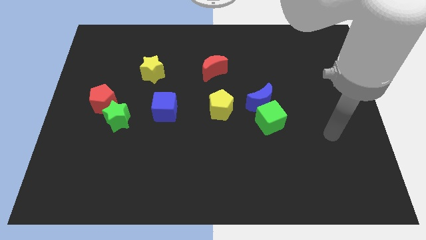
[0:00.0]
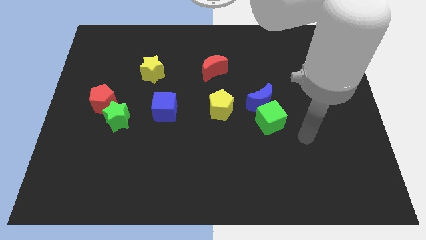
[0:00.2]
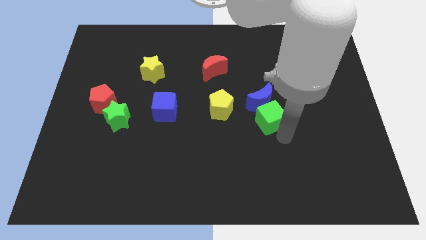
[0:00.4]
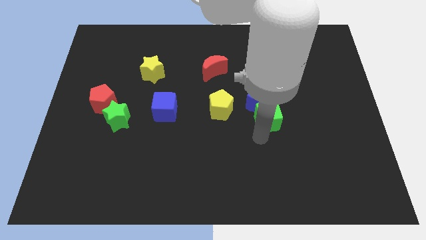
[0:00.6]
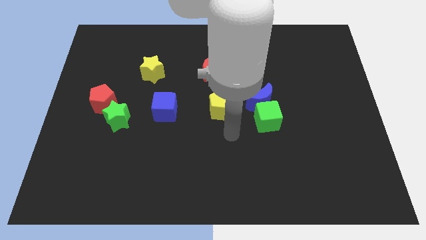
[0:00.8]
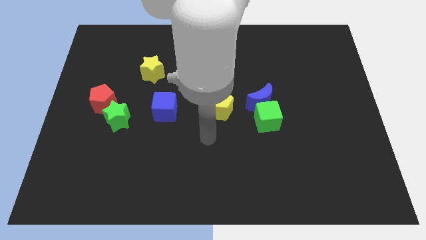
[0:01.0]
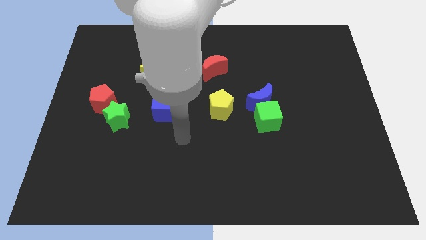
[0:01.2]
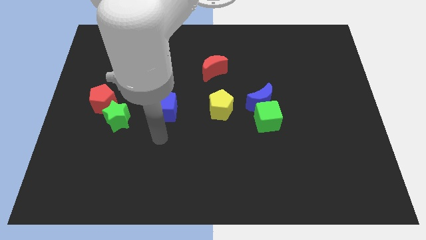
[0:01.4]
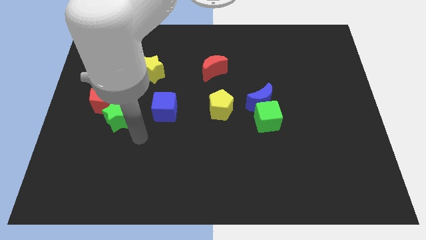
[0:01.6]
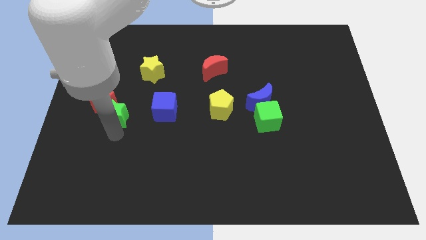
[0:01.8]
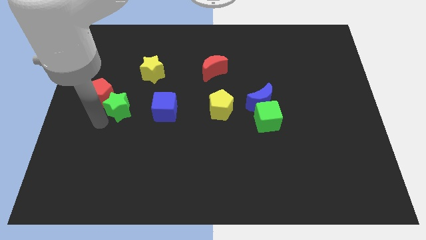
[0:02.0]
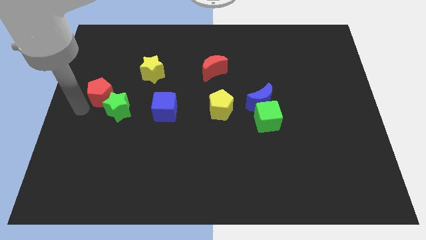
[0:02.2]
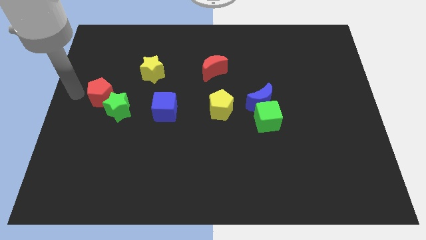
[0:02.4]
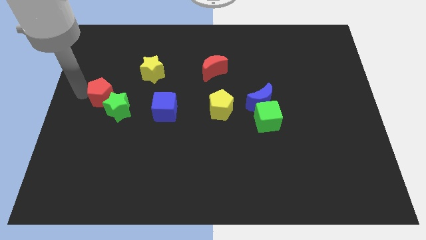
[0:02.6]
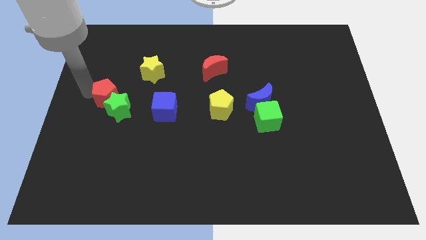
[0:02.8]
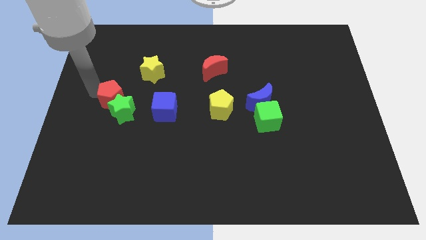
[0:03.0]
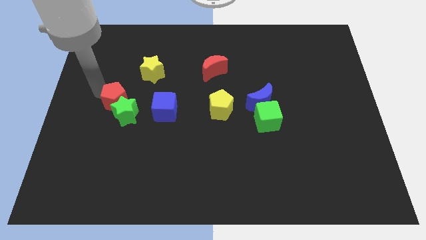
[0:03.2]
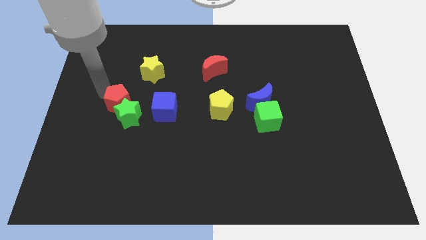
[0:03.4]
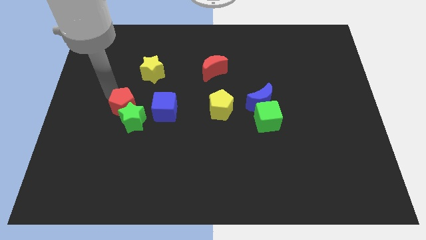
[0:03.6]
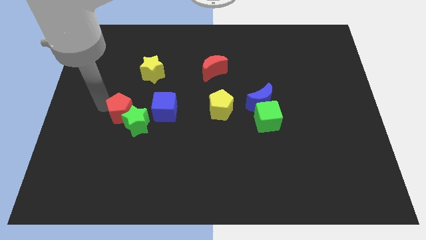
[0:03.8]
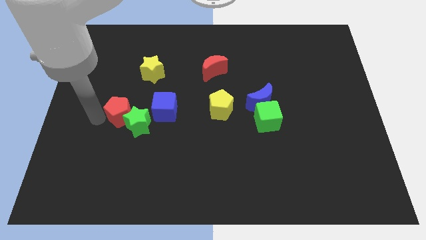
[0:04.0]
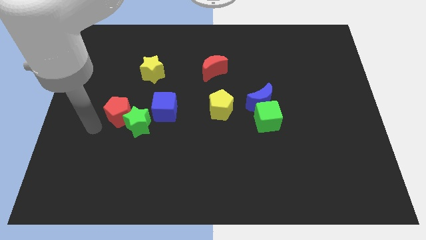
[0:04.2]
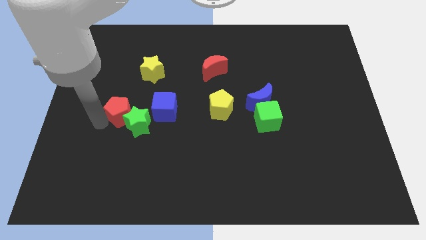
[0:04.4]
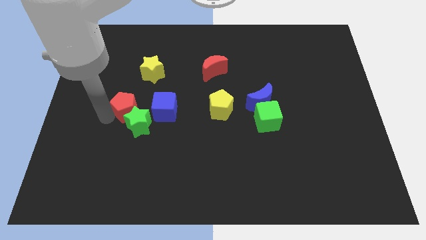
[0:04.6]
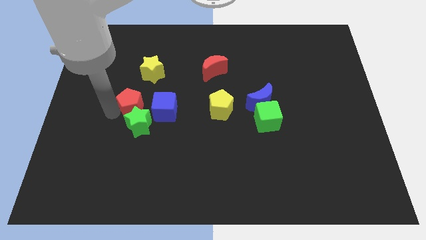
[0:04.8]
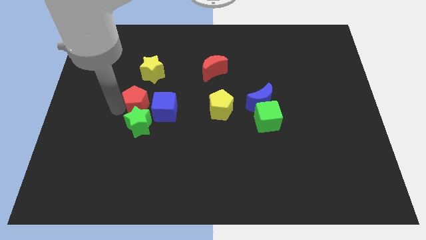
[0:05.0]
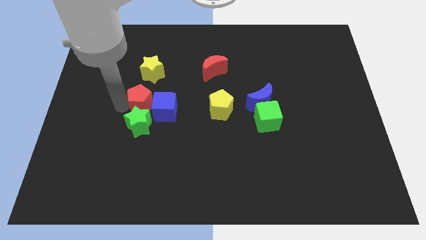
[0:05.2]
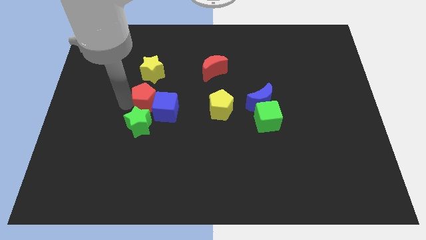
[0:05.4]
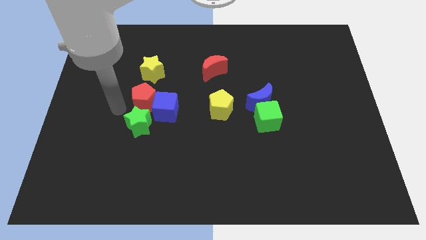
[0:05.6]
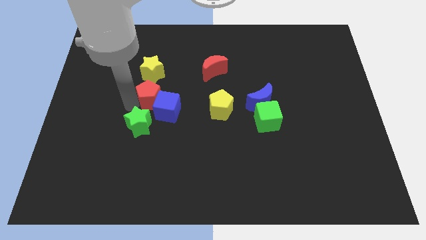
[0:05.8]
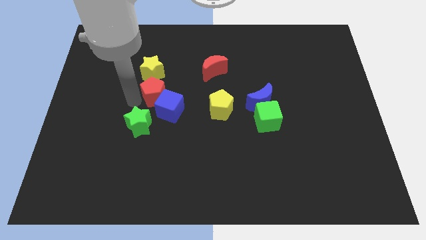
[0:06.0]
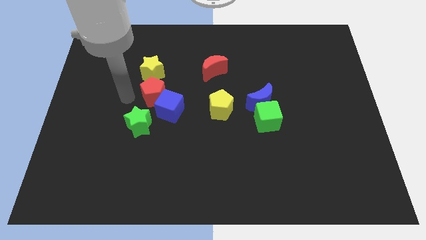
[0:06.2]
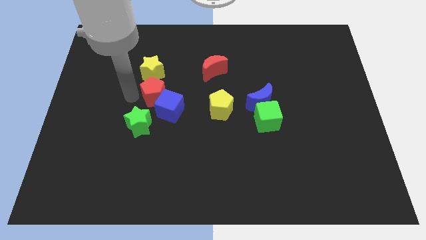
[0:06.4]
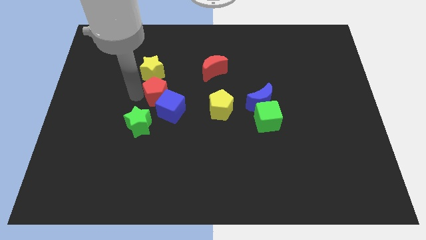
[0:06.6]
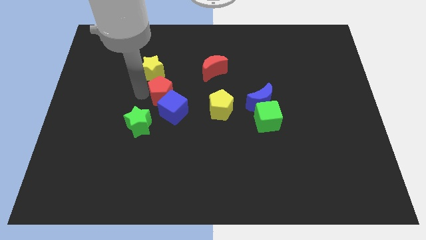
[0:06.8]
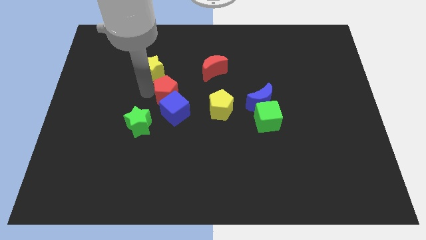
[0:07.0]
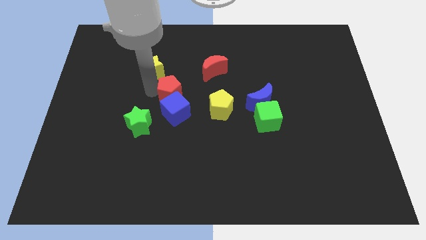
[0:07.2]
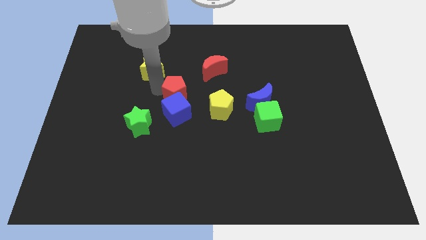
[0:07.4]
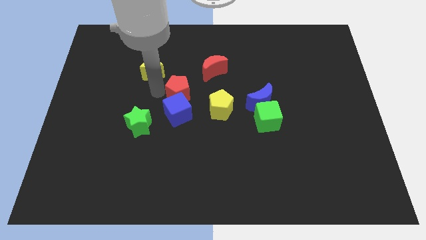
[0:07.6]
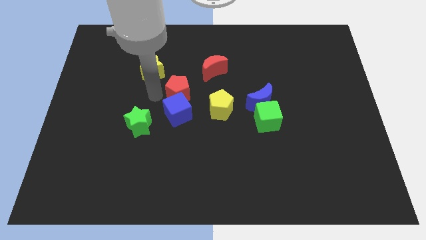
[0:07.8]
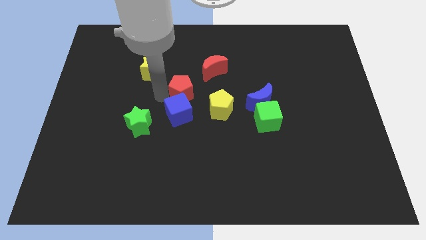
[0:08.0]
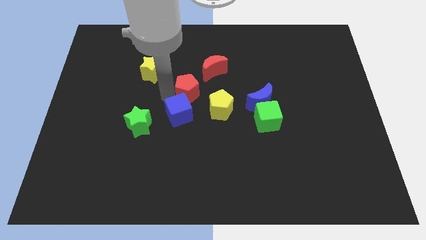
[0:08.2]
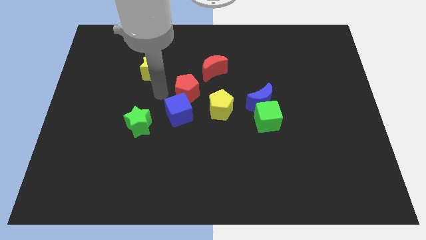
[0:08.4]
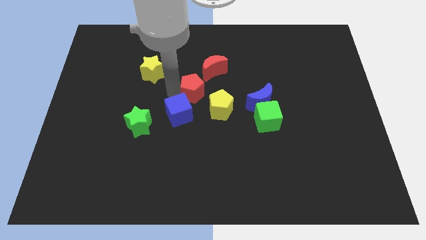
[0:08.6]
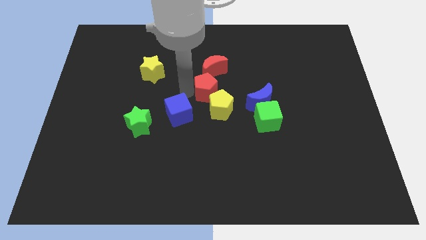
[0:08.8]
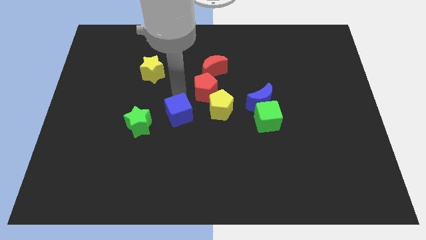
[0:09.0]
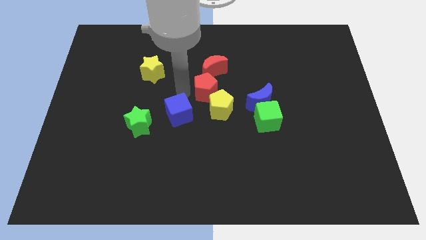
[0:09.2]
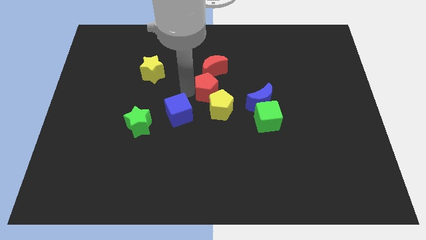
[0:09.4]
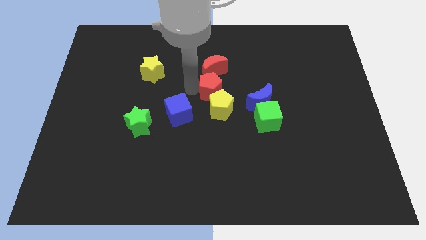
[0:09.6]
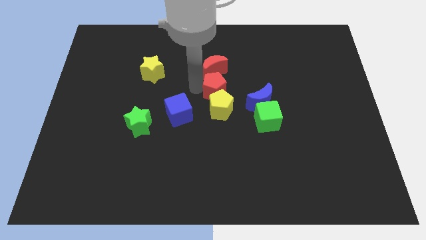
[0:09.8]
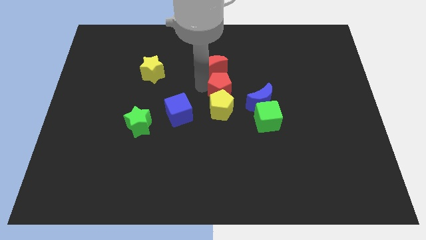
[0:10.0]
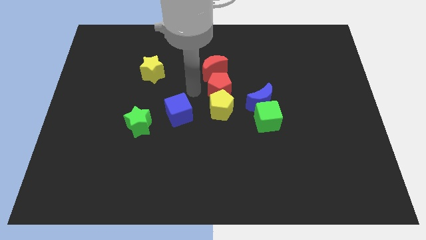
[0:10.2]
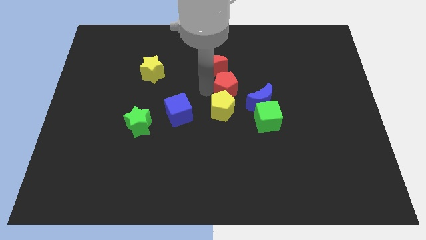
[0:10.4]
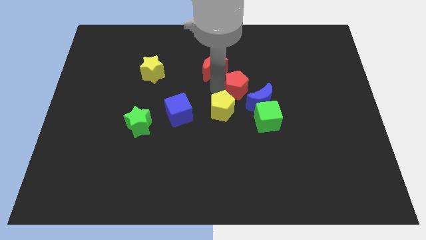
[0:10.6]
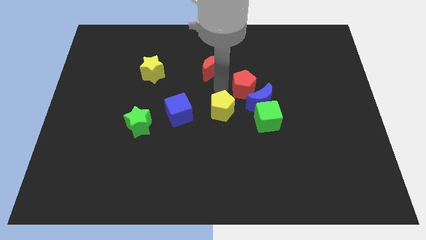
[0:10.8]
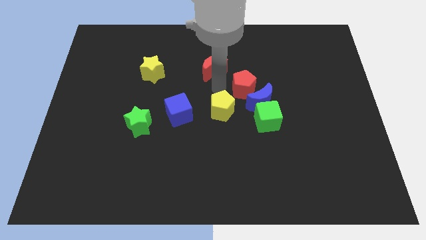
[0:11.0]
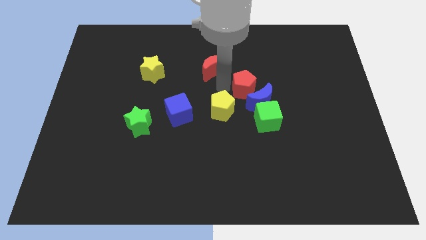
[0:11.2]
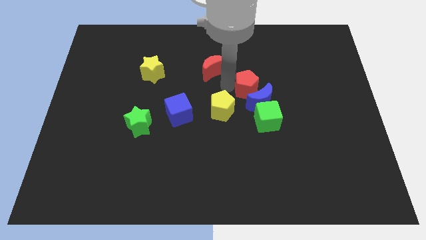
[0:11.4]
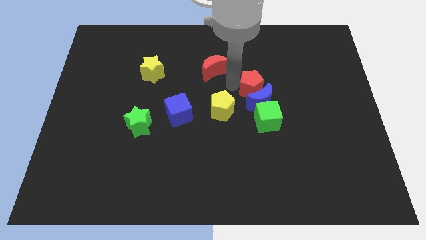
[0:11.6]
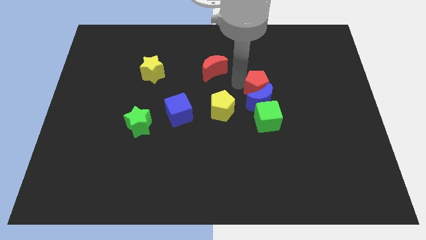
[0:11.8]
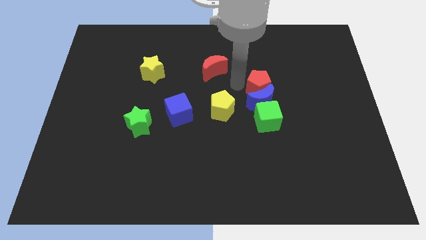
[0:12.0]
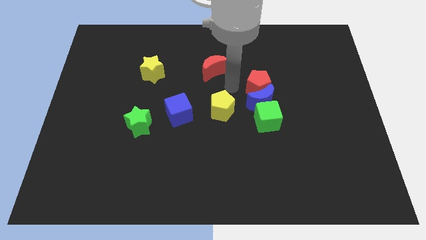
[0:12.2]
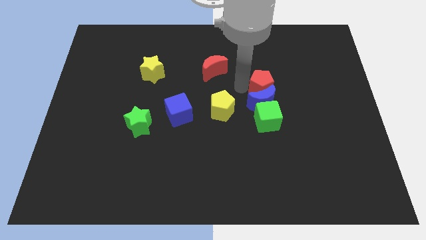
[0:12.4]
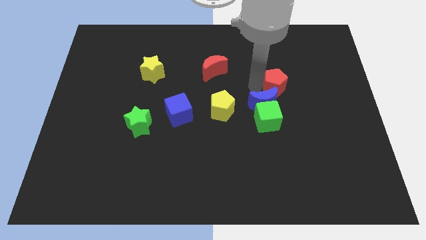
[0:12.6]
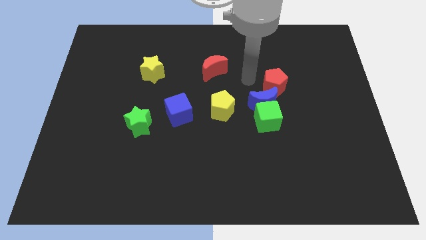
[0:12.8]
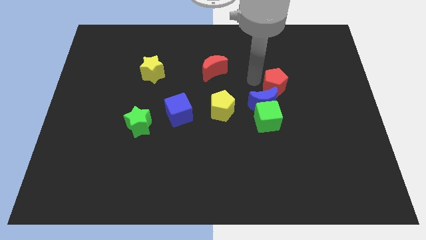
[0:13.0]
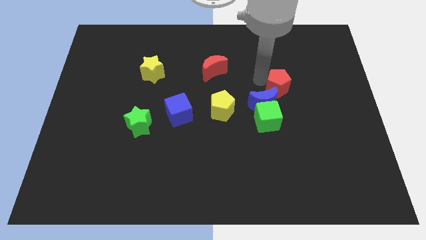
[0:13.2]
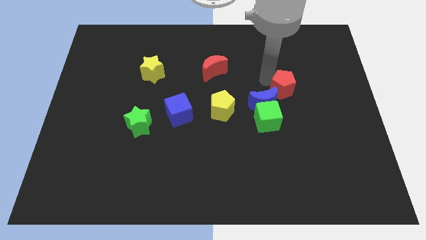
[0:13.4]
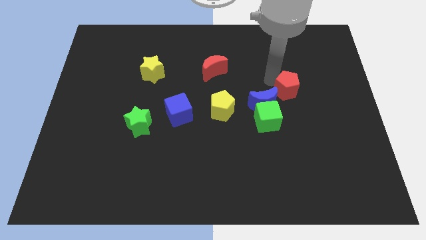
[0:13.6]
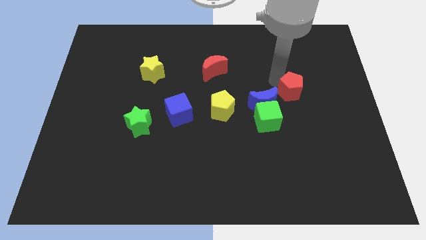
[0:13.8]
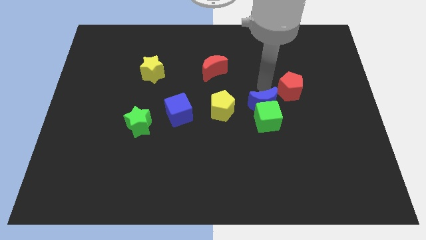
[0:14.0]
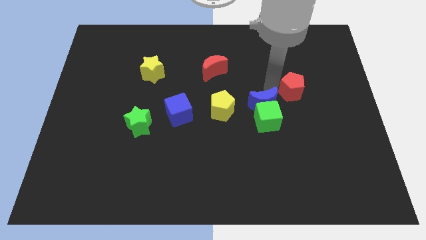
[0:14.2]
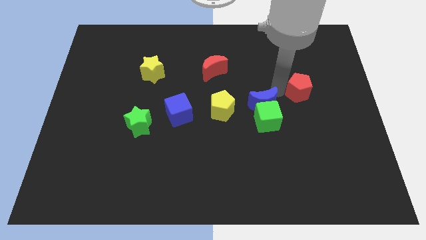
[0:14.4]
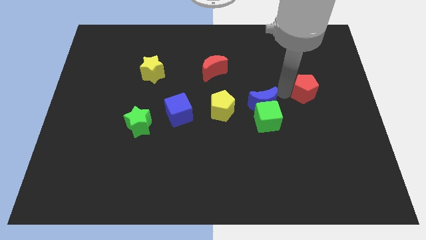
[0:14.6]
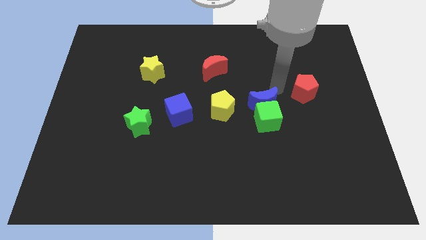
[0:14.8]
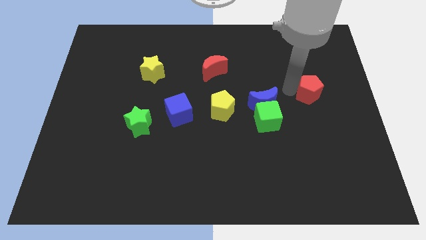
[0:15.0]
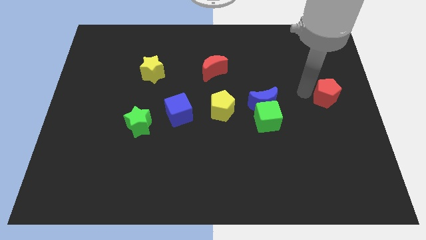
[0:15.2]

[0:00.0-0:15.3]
put the red pentagon to the right side
